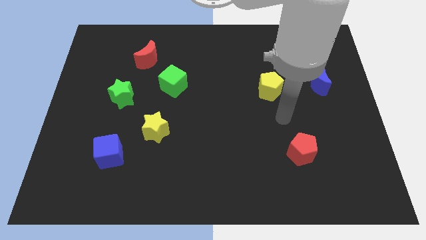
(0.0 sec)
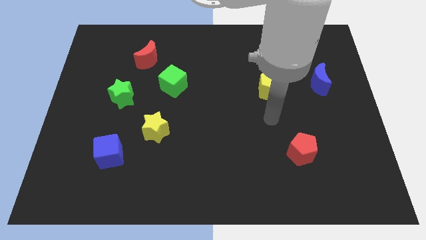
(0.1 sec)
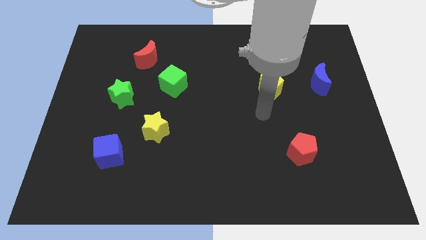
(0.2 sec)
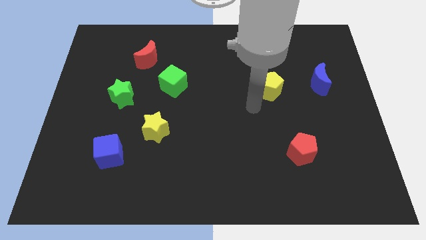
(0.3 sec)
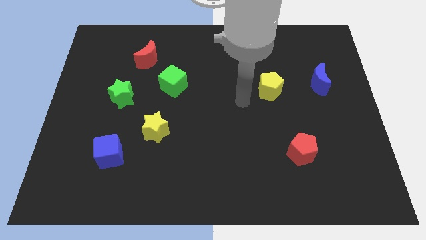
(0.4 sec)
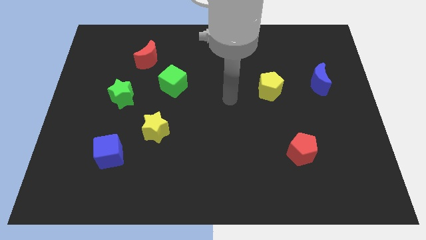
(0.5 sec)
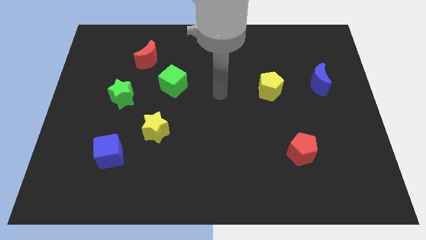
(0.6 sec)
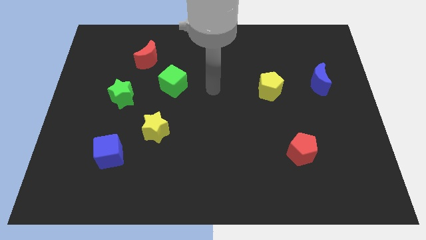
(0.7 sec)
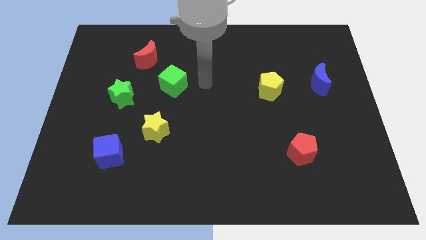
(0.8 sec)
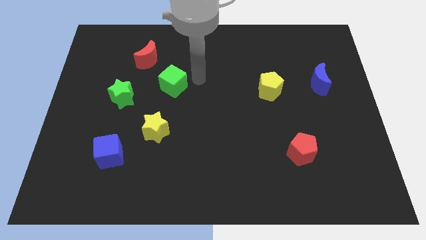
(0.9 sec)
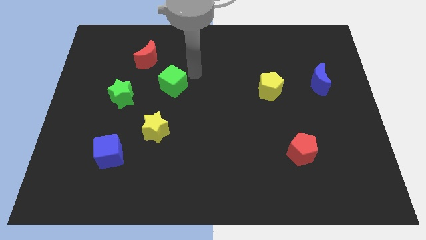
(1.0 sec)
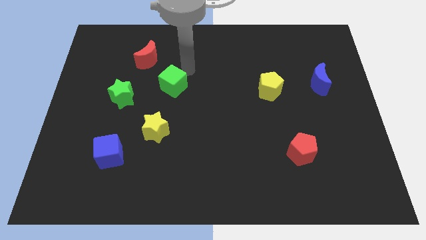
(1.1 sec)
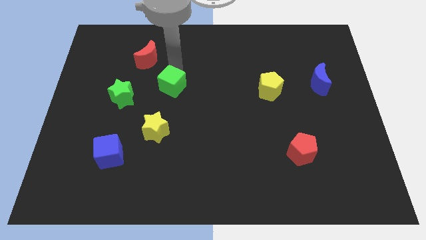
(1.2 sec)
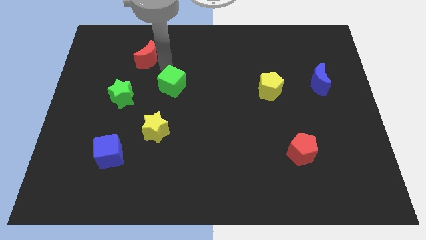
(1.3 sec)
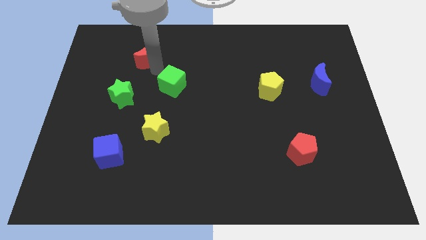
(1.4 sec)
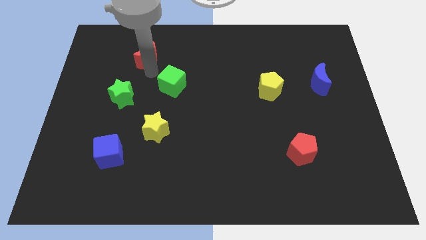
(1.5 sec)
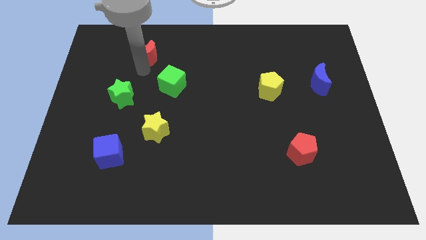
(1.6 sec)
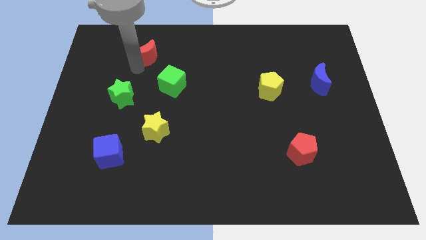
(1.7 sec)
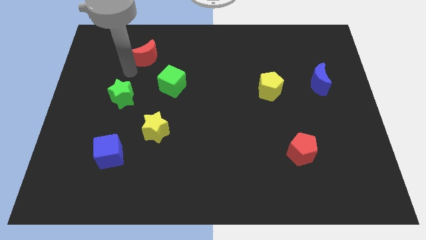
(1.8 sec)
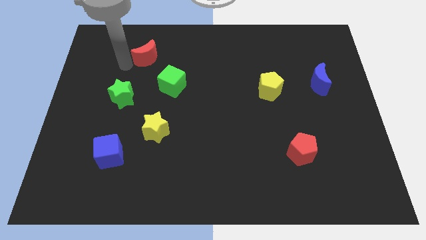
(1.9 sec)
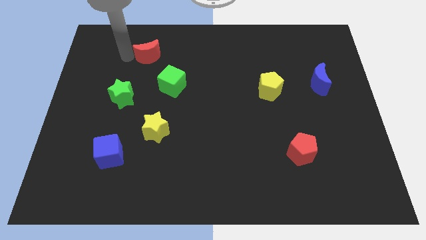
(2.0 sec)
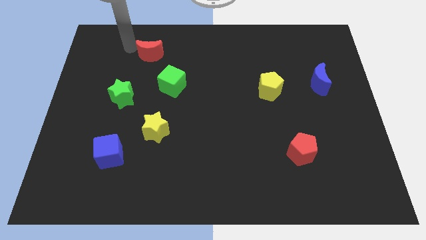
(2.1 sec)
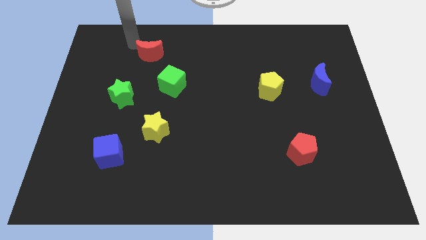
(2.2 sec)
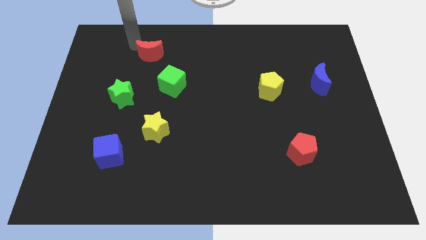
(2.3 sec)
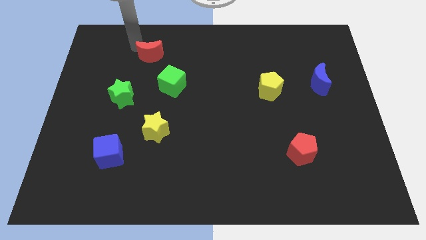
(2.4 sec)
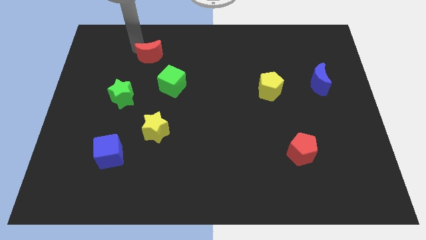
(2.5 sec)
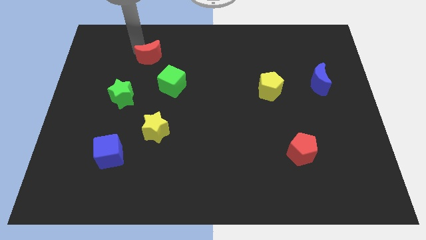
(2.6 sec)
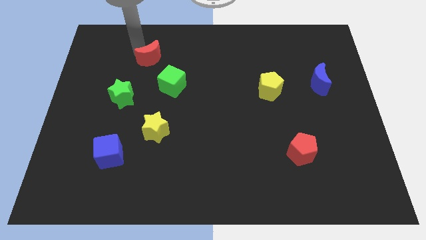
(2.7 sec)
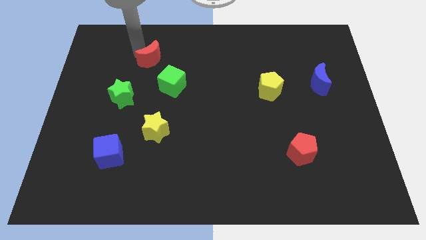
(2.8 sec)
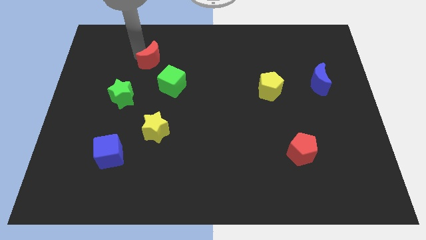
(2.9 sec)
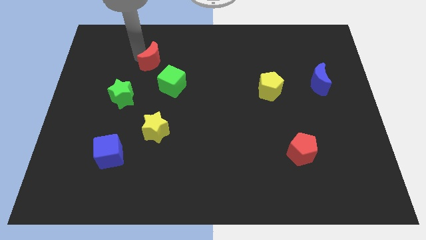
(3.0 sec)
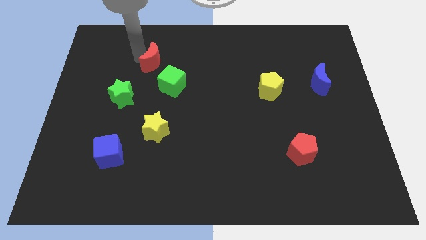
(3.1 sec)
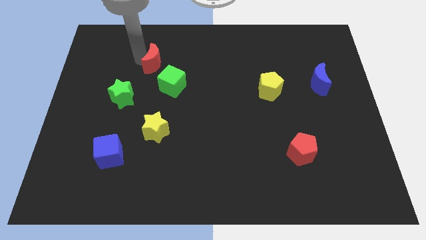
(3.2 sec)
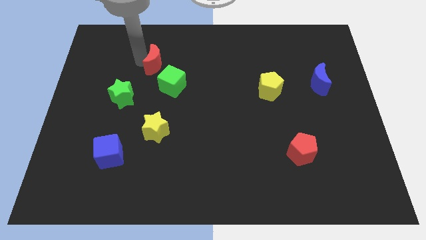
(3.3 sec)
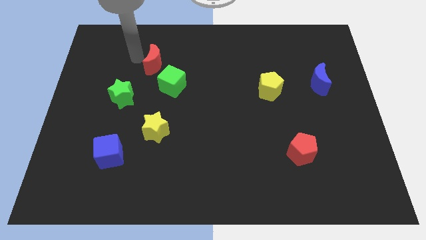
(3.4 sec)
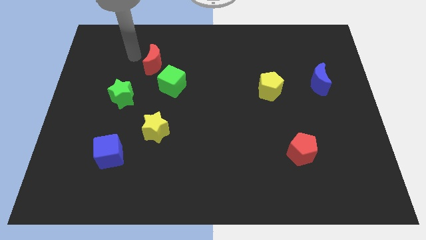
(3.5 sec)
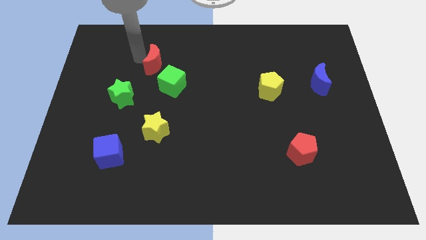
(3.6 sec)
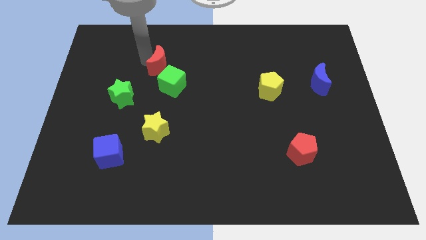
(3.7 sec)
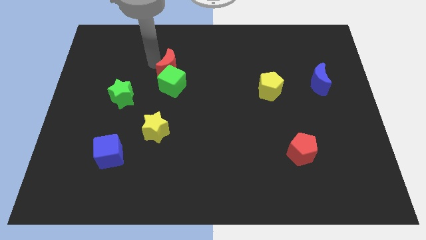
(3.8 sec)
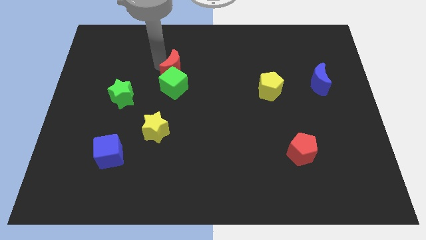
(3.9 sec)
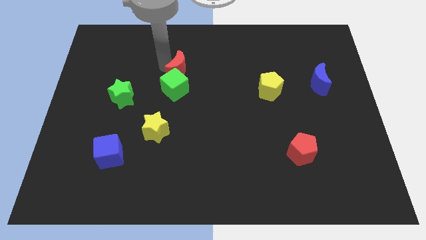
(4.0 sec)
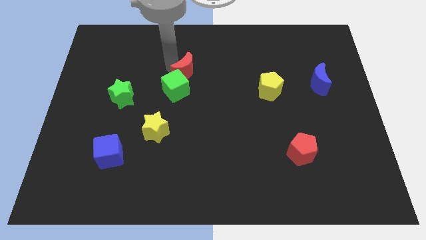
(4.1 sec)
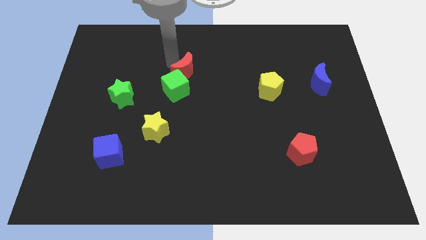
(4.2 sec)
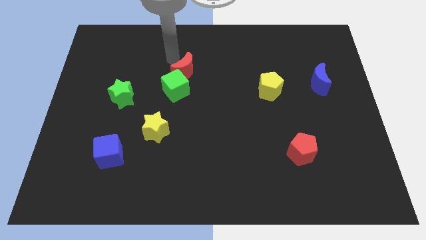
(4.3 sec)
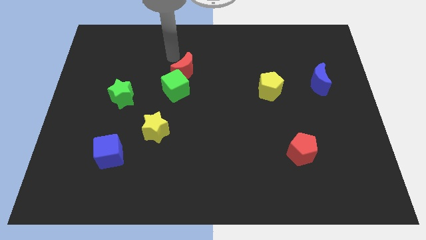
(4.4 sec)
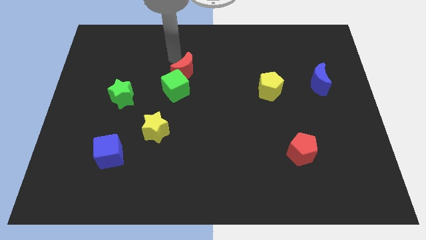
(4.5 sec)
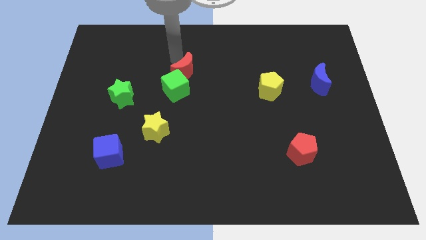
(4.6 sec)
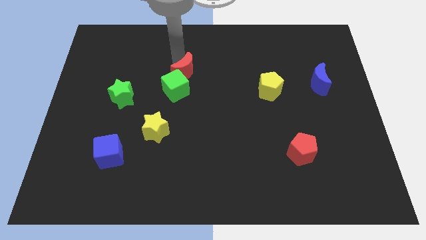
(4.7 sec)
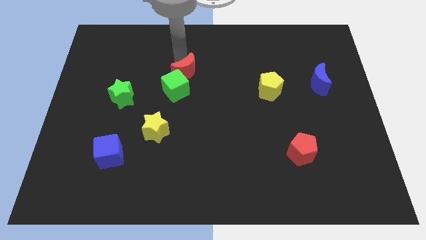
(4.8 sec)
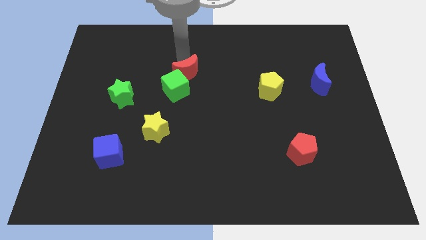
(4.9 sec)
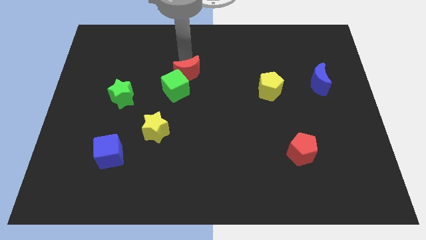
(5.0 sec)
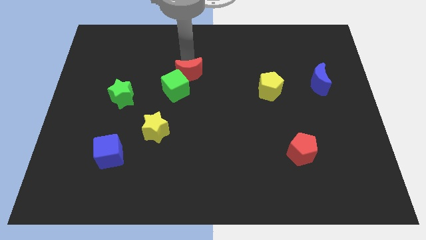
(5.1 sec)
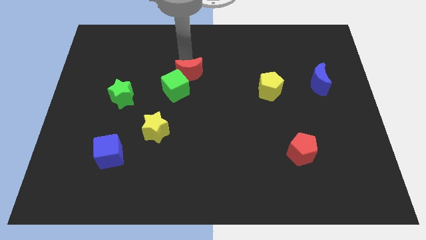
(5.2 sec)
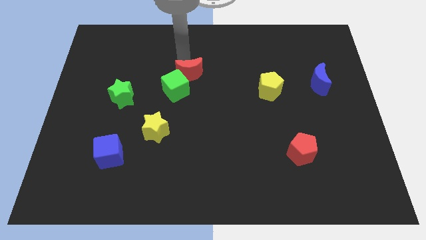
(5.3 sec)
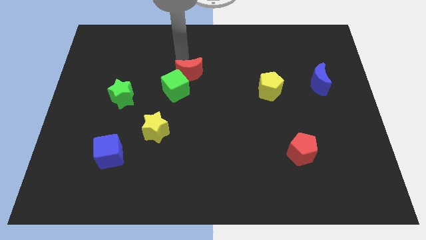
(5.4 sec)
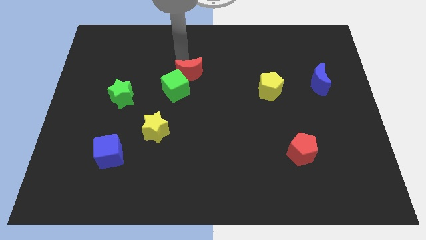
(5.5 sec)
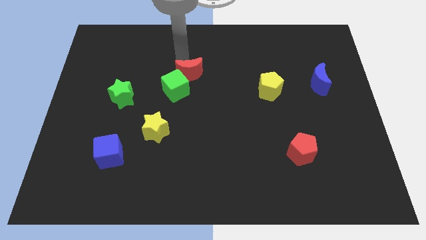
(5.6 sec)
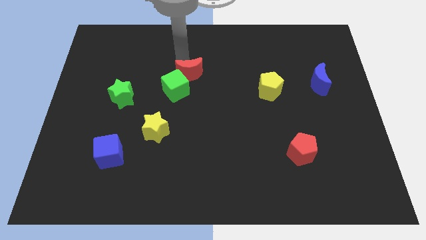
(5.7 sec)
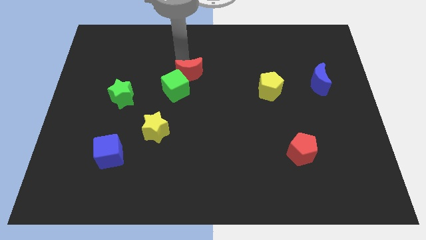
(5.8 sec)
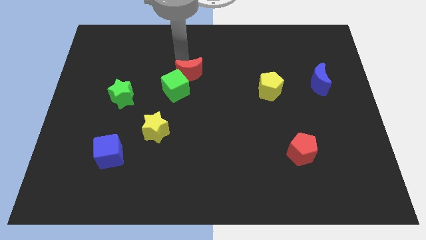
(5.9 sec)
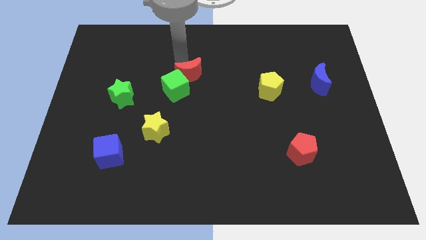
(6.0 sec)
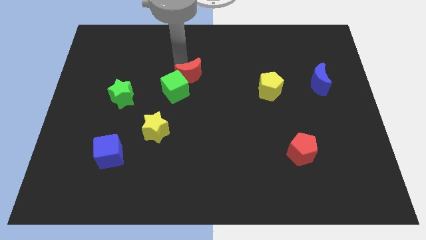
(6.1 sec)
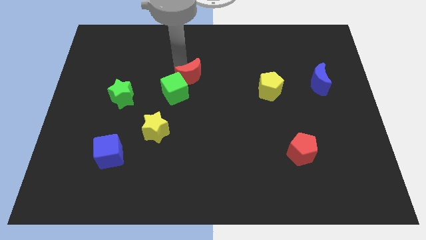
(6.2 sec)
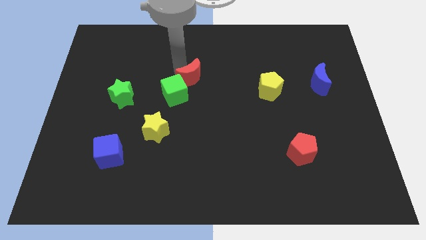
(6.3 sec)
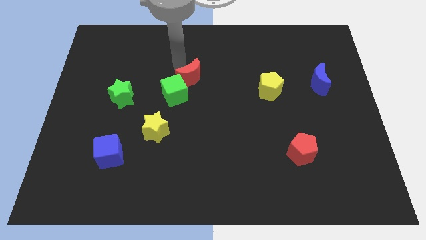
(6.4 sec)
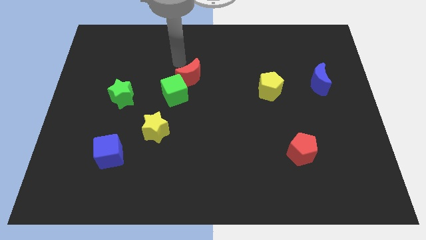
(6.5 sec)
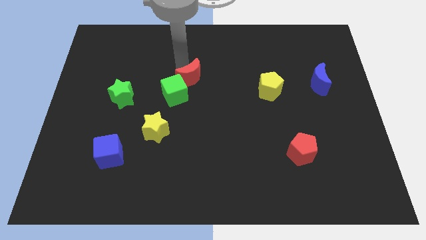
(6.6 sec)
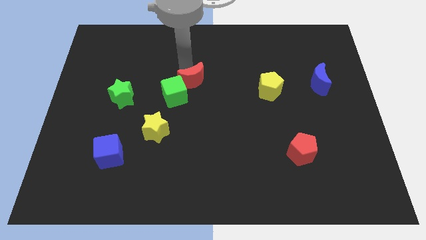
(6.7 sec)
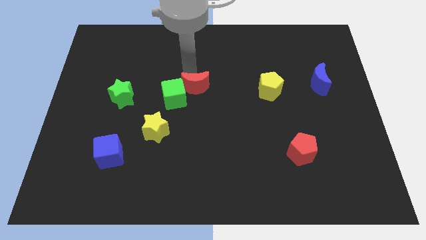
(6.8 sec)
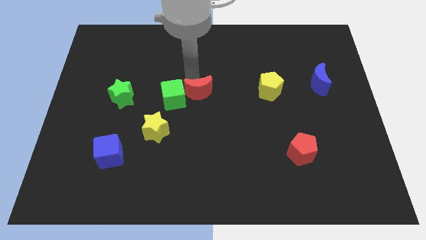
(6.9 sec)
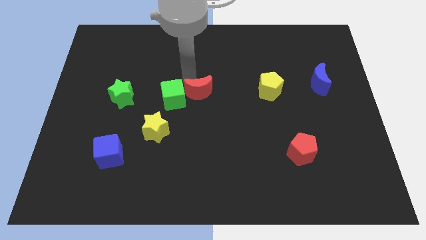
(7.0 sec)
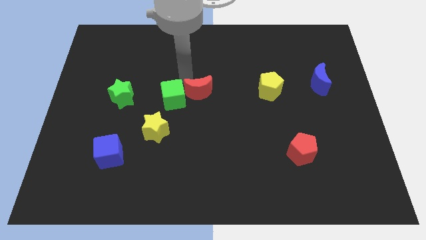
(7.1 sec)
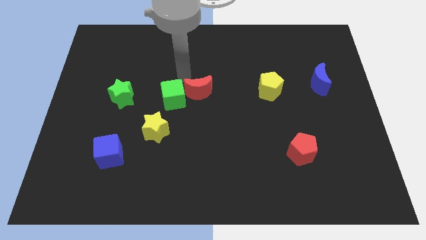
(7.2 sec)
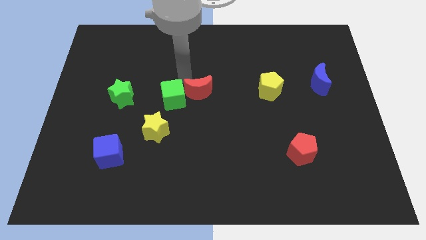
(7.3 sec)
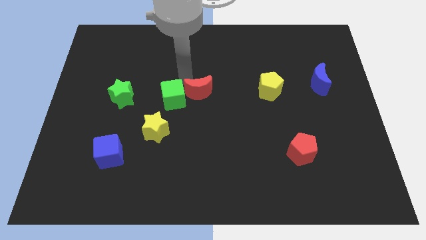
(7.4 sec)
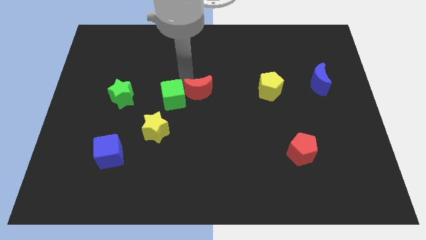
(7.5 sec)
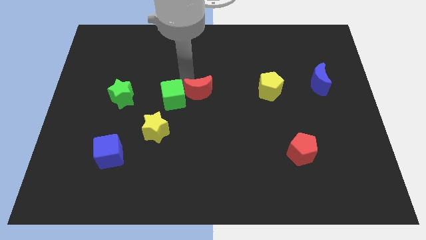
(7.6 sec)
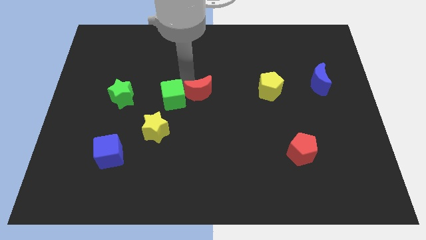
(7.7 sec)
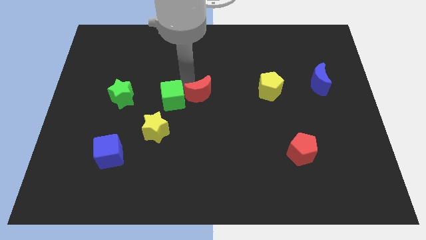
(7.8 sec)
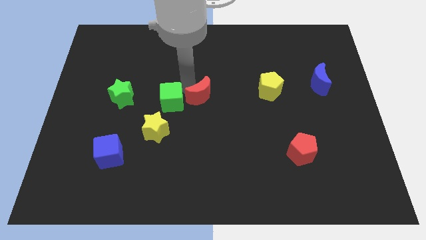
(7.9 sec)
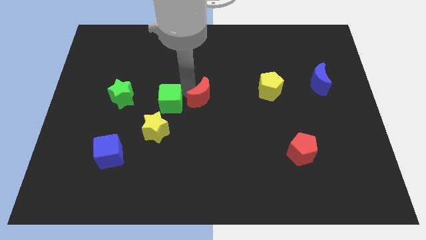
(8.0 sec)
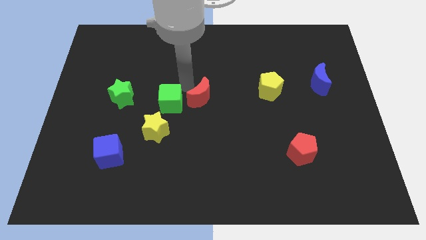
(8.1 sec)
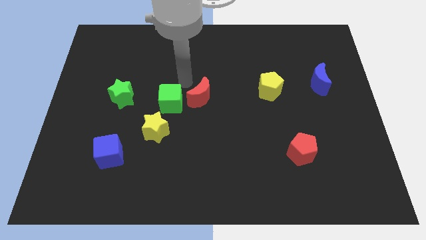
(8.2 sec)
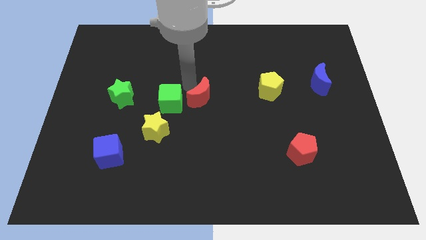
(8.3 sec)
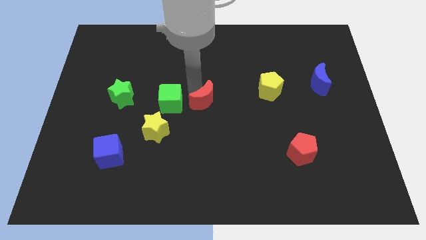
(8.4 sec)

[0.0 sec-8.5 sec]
slide the red moon diagonally downwards and right
